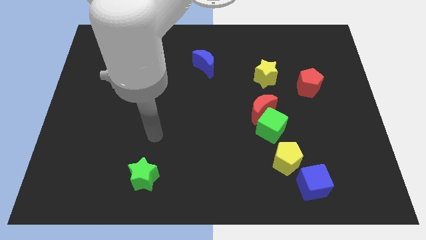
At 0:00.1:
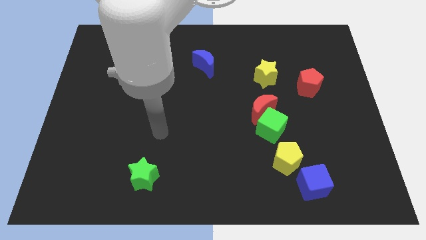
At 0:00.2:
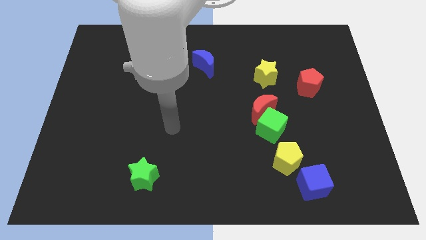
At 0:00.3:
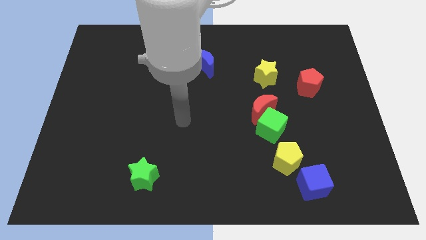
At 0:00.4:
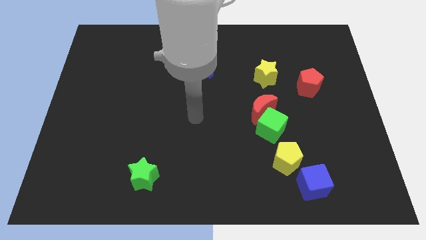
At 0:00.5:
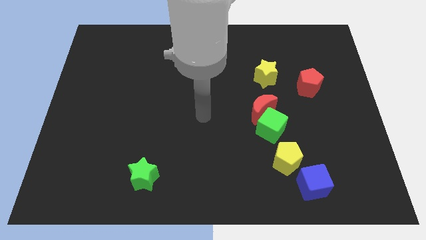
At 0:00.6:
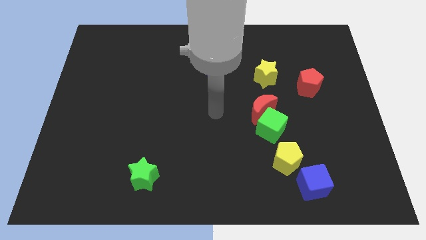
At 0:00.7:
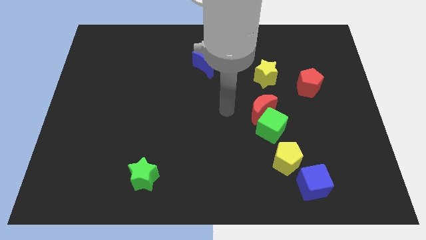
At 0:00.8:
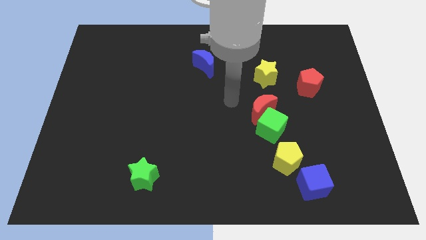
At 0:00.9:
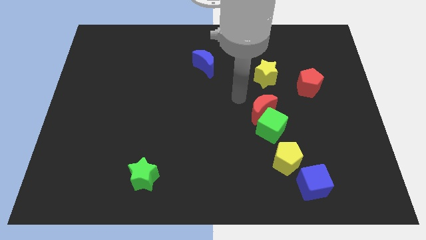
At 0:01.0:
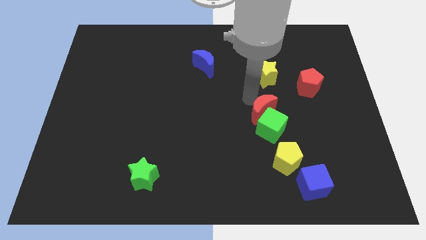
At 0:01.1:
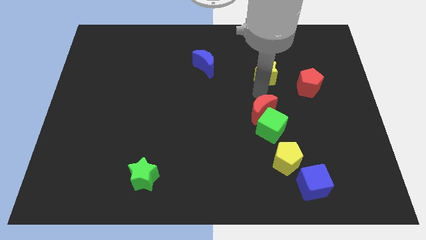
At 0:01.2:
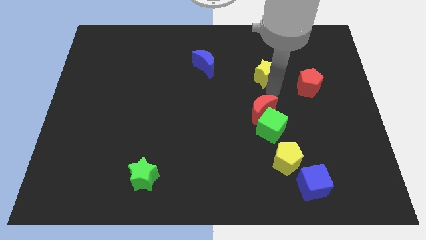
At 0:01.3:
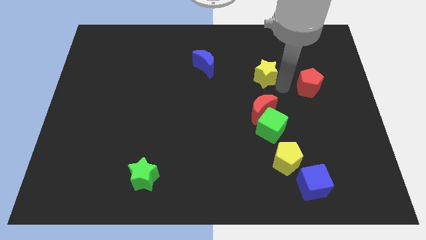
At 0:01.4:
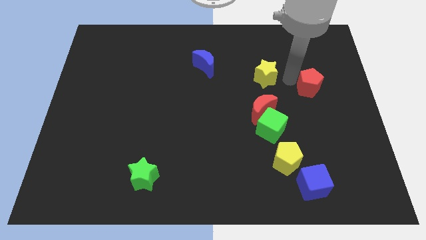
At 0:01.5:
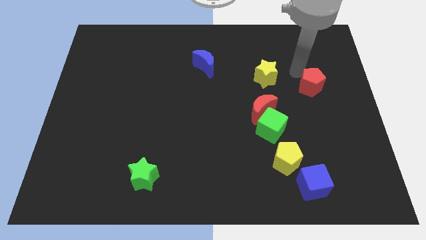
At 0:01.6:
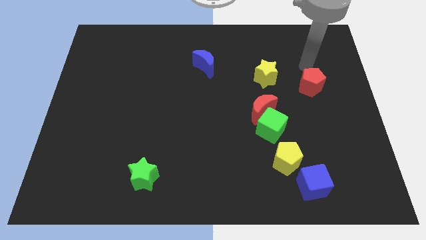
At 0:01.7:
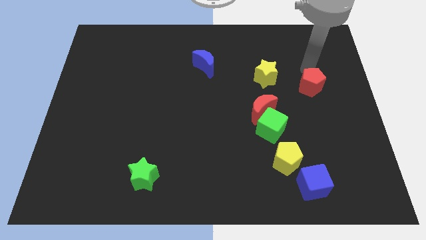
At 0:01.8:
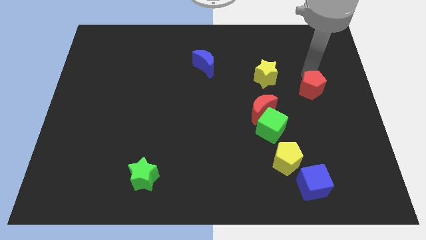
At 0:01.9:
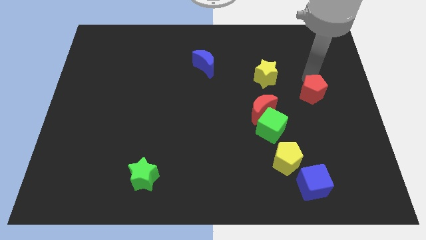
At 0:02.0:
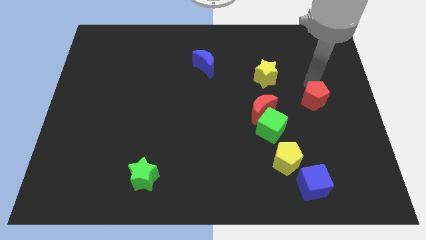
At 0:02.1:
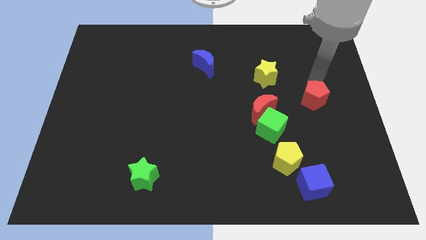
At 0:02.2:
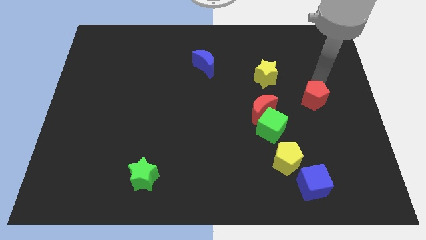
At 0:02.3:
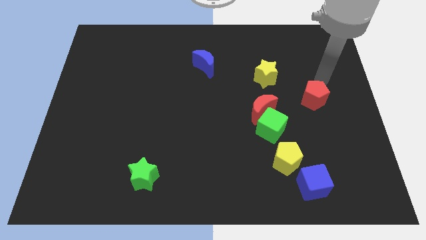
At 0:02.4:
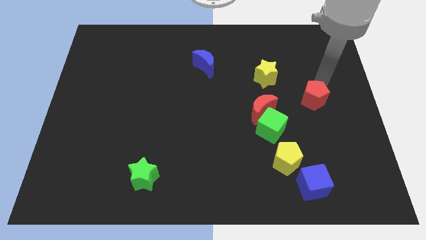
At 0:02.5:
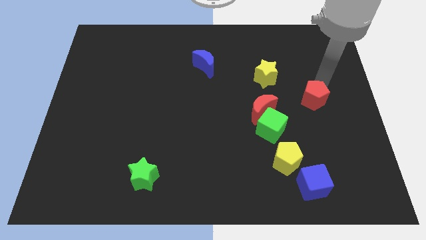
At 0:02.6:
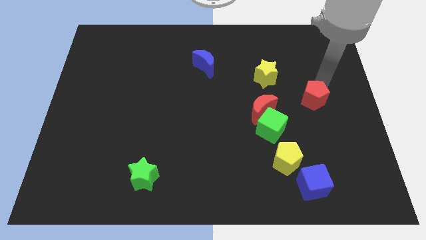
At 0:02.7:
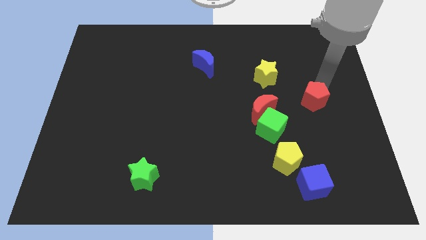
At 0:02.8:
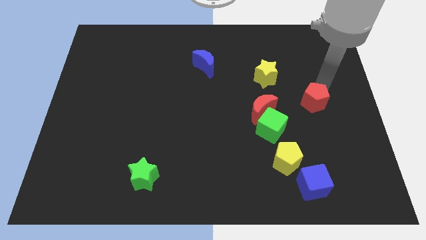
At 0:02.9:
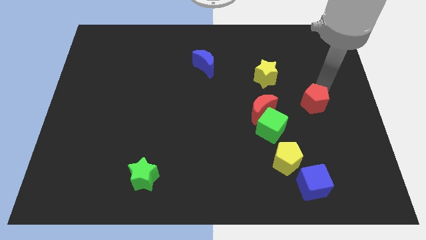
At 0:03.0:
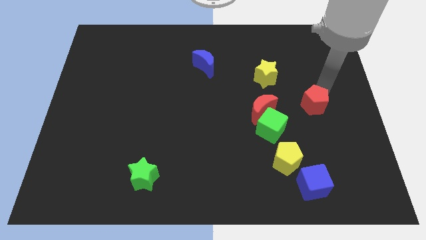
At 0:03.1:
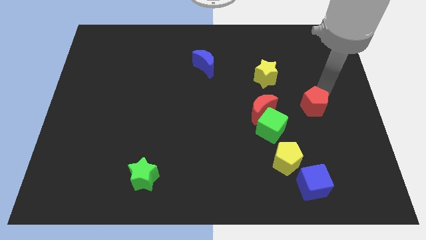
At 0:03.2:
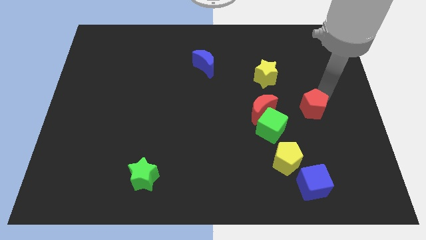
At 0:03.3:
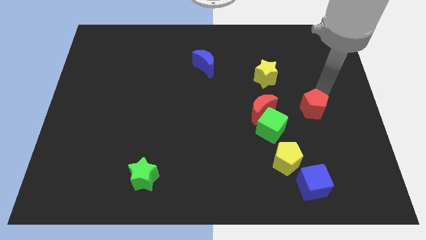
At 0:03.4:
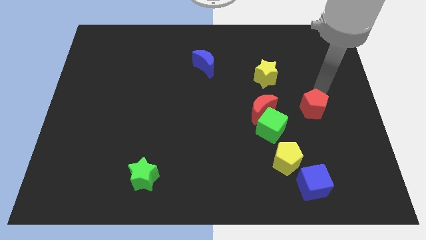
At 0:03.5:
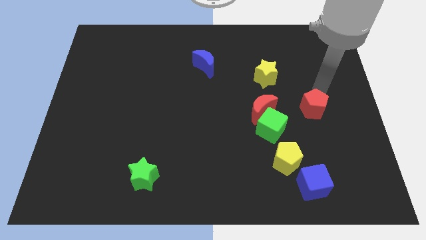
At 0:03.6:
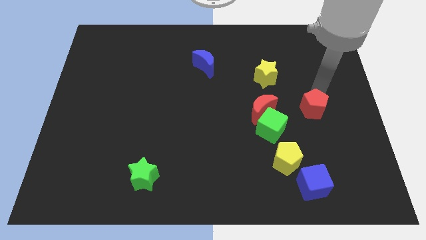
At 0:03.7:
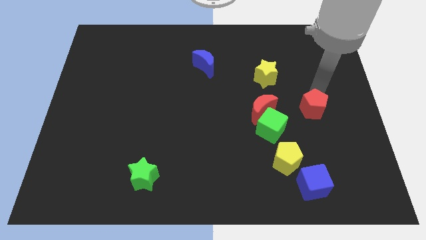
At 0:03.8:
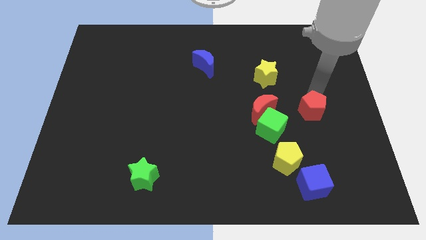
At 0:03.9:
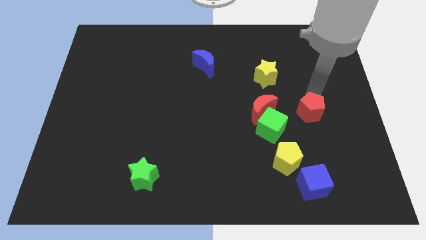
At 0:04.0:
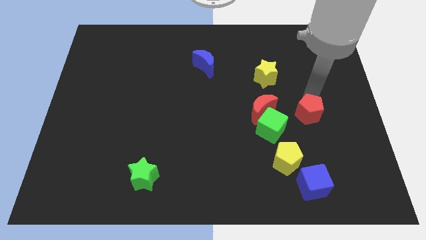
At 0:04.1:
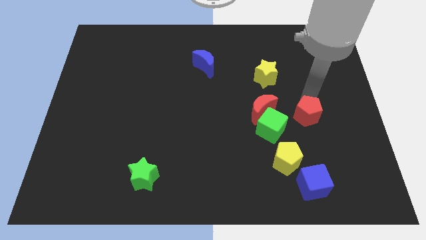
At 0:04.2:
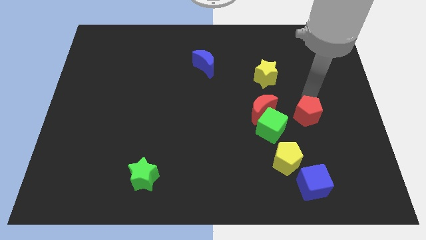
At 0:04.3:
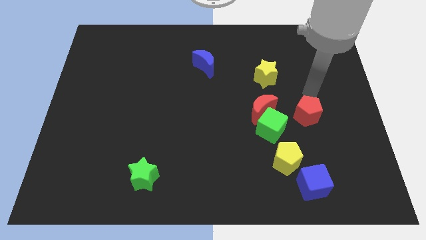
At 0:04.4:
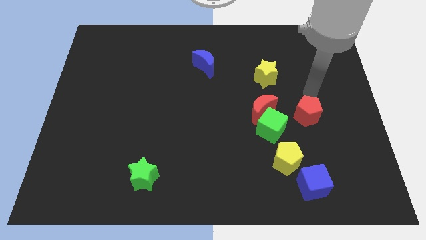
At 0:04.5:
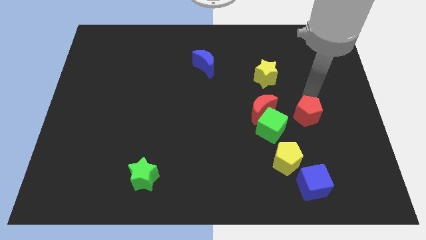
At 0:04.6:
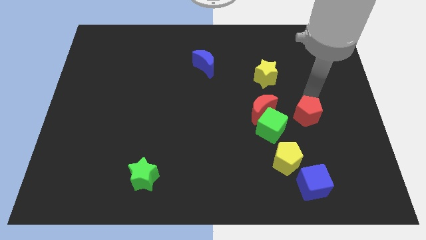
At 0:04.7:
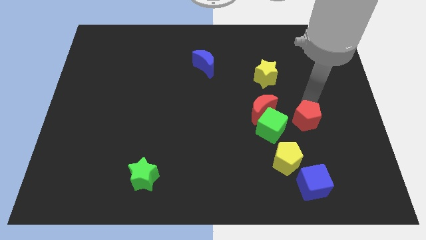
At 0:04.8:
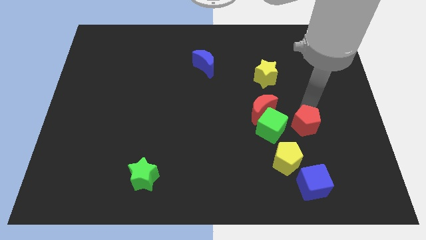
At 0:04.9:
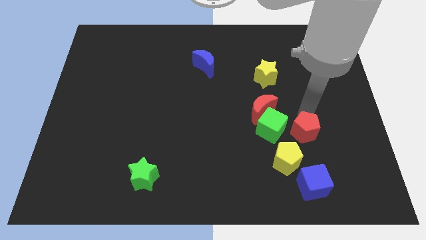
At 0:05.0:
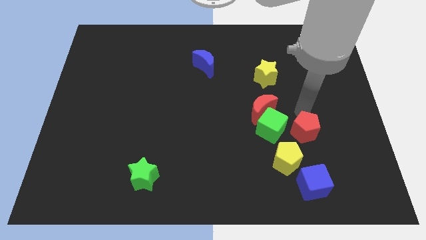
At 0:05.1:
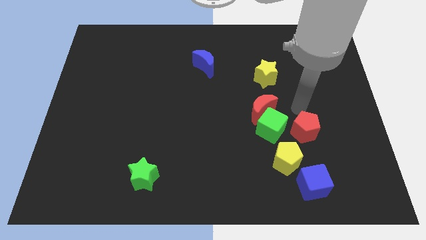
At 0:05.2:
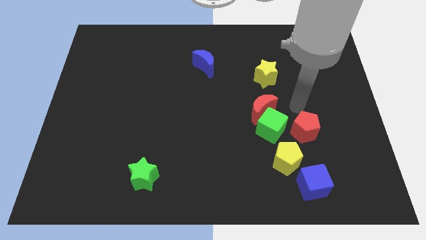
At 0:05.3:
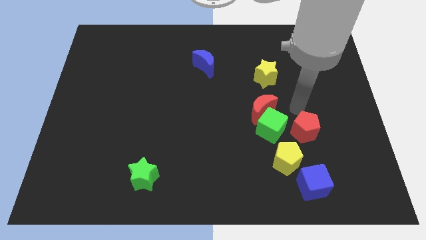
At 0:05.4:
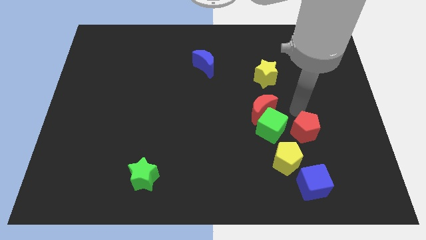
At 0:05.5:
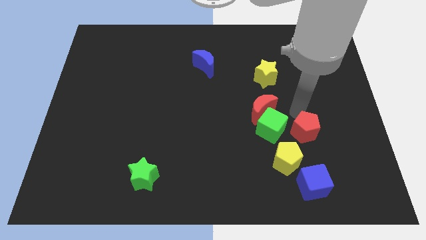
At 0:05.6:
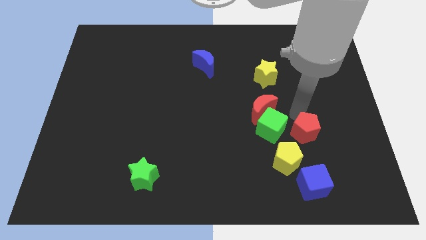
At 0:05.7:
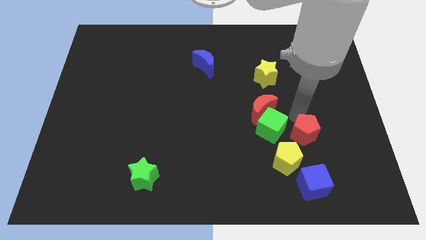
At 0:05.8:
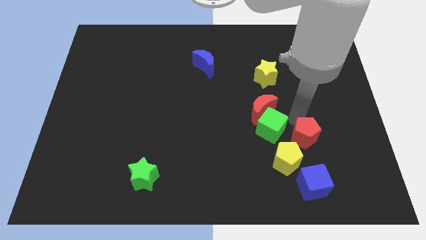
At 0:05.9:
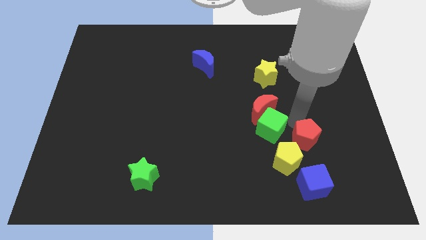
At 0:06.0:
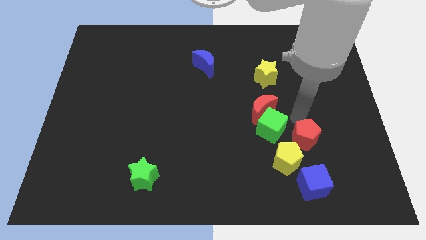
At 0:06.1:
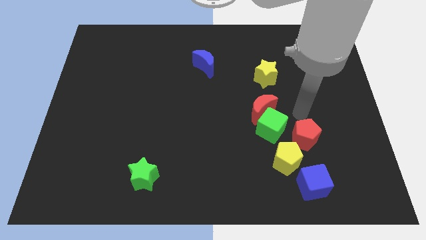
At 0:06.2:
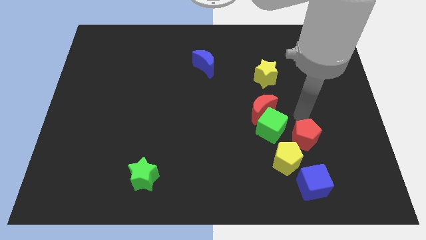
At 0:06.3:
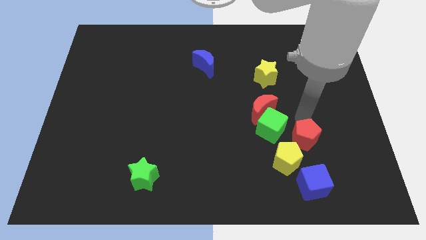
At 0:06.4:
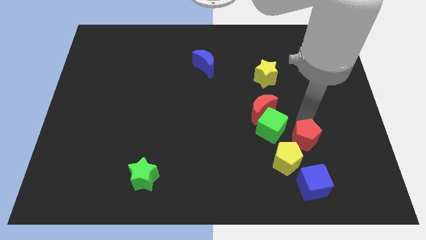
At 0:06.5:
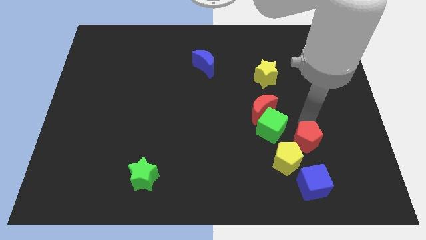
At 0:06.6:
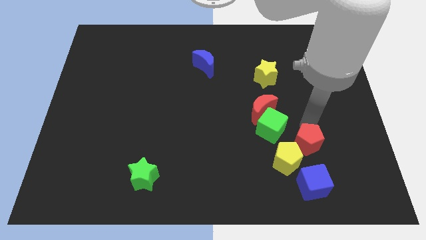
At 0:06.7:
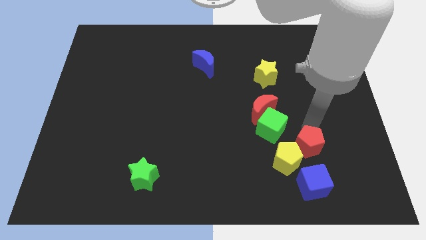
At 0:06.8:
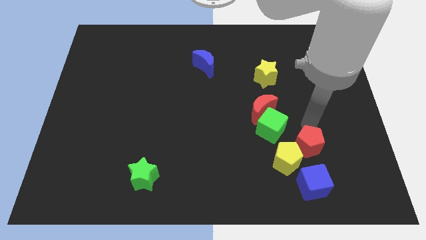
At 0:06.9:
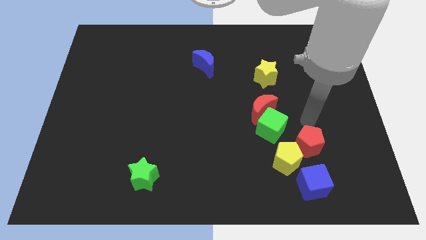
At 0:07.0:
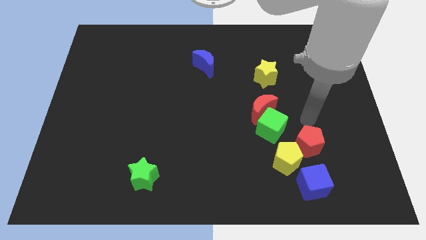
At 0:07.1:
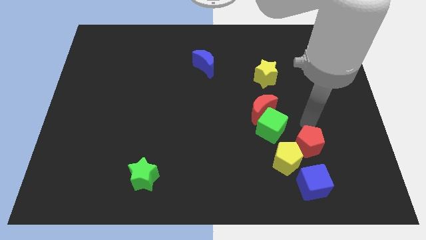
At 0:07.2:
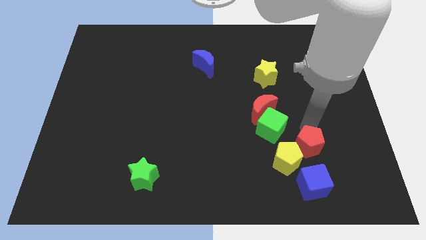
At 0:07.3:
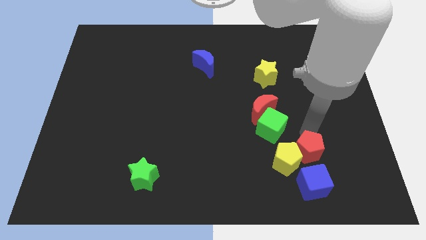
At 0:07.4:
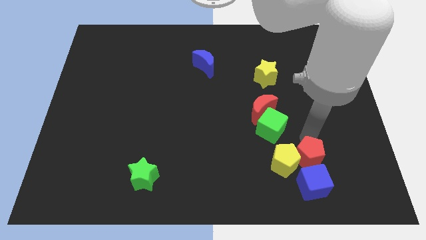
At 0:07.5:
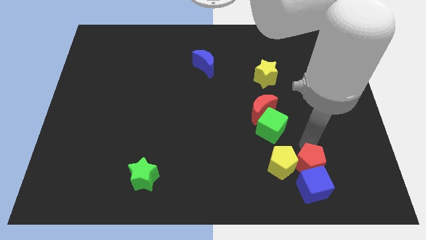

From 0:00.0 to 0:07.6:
put the red pentagon close to the blue cube
